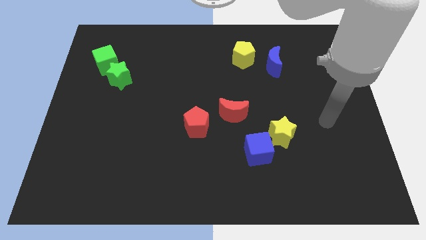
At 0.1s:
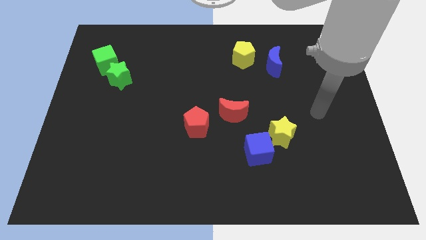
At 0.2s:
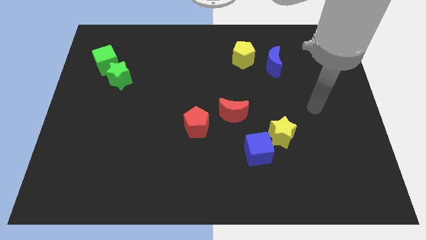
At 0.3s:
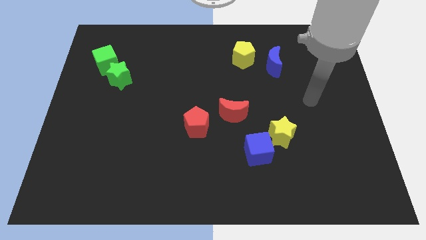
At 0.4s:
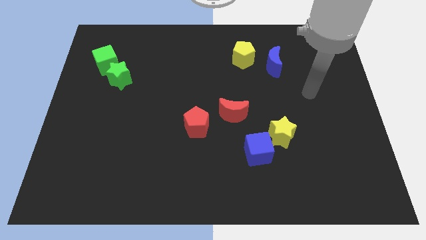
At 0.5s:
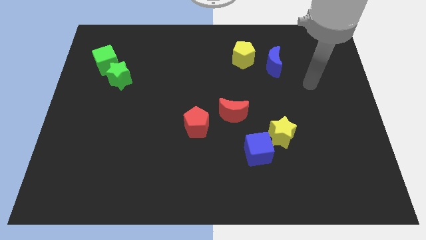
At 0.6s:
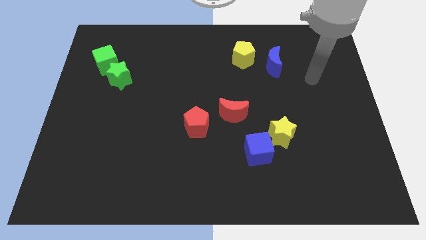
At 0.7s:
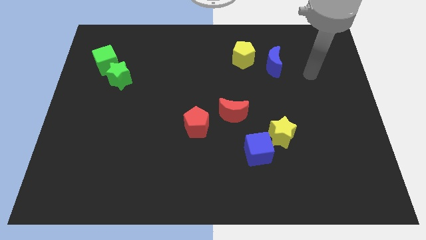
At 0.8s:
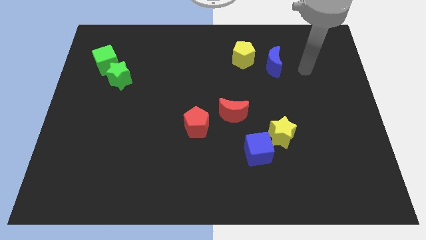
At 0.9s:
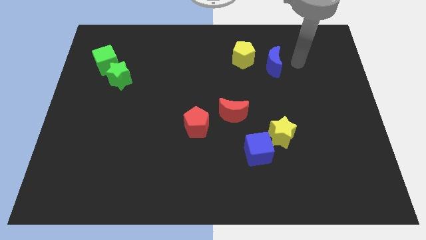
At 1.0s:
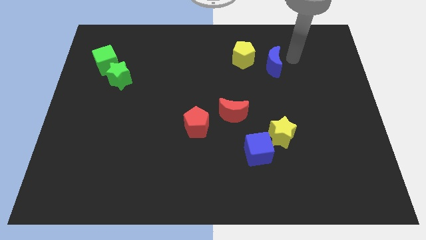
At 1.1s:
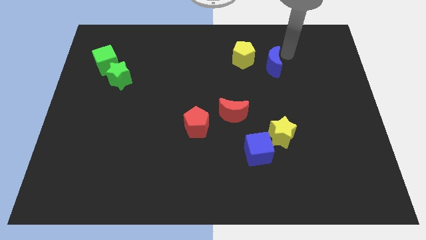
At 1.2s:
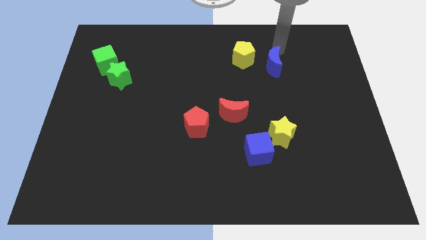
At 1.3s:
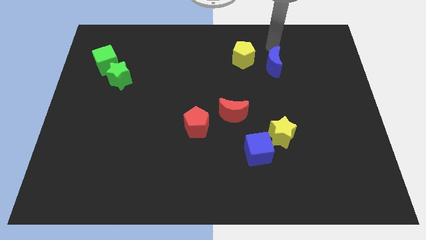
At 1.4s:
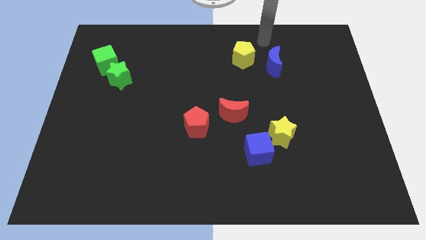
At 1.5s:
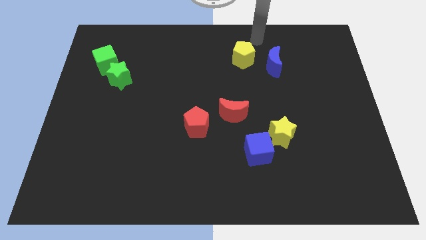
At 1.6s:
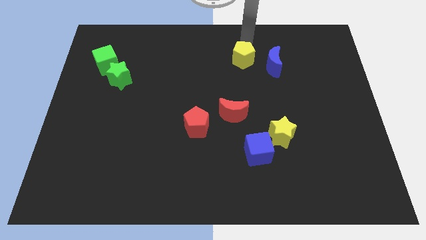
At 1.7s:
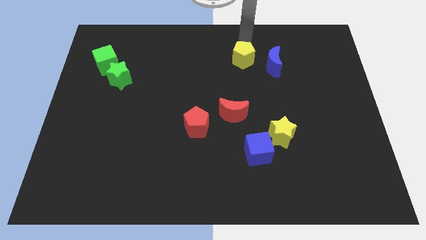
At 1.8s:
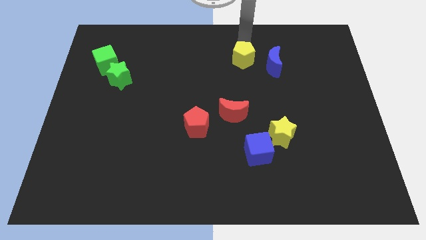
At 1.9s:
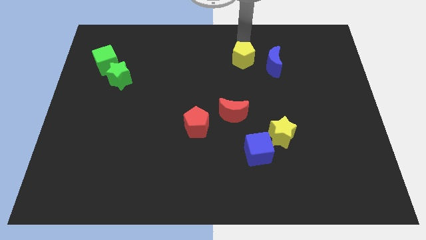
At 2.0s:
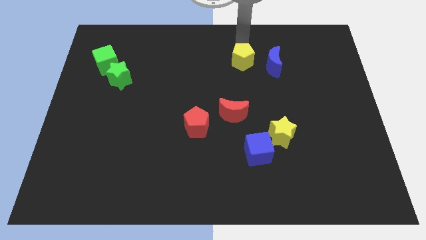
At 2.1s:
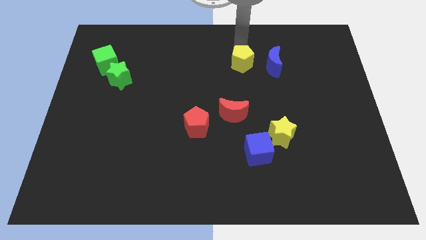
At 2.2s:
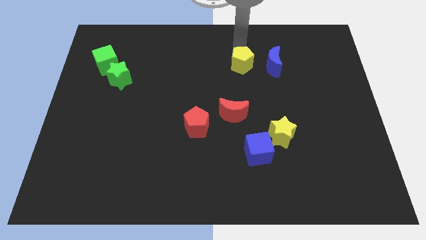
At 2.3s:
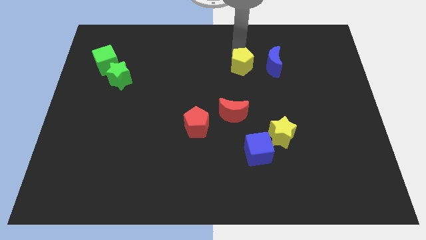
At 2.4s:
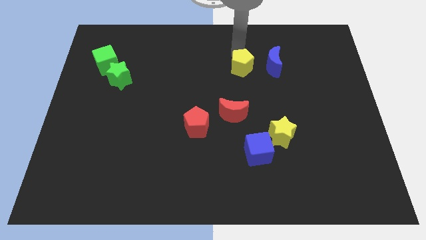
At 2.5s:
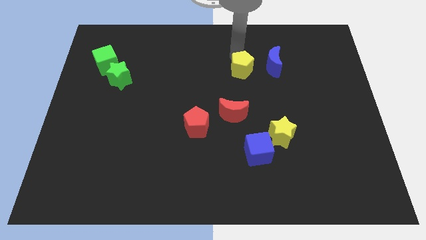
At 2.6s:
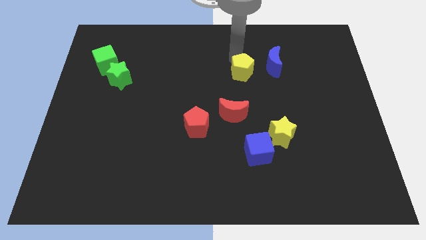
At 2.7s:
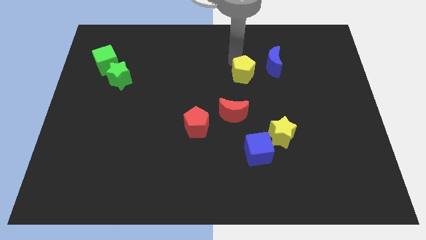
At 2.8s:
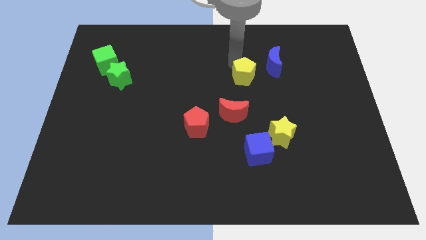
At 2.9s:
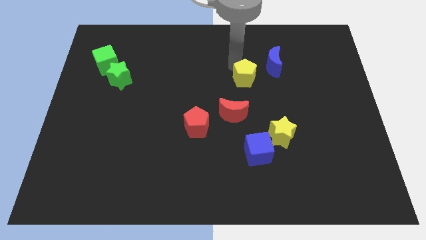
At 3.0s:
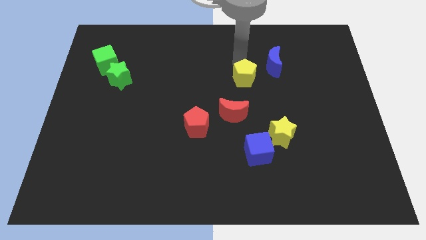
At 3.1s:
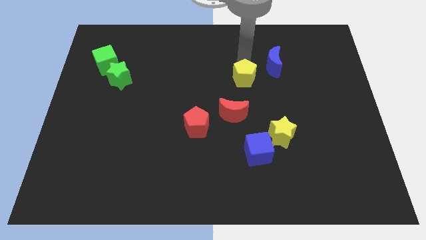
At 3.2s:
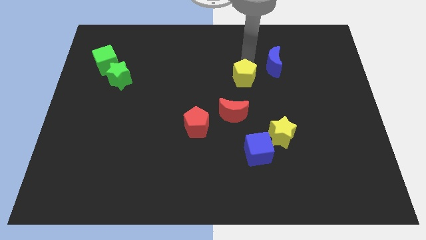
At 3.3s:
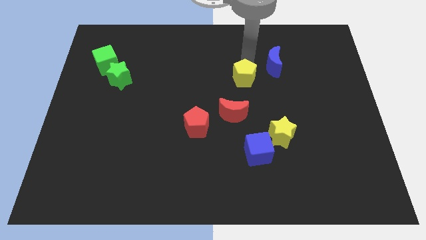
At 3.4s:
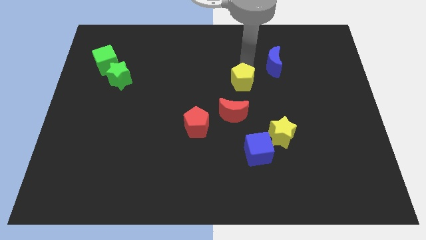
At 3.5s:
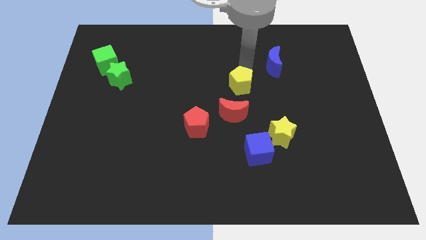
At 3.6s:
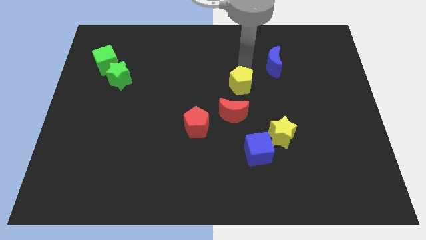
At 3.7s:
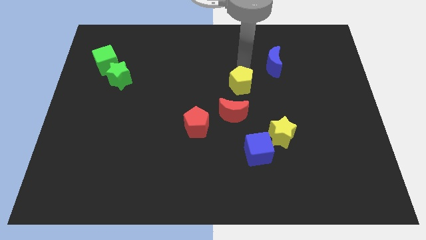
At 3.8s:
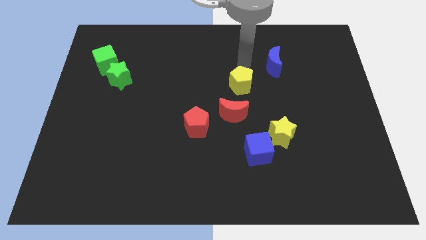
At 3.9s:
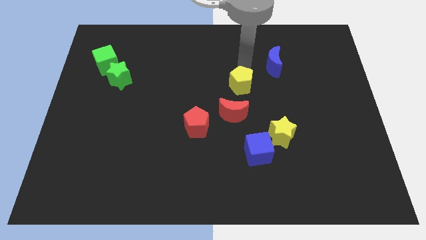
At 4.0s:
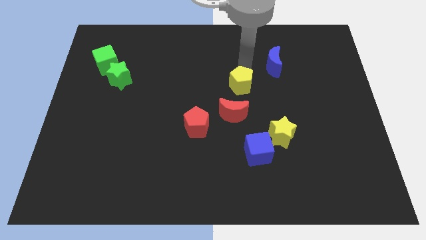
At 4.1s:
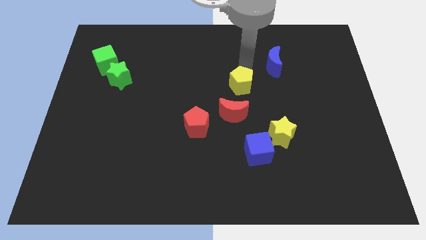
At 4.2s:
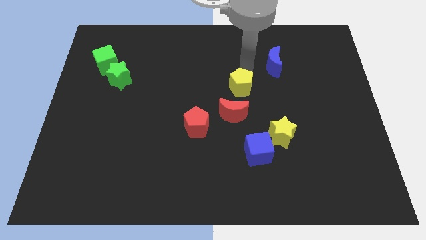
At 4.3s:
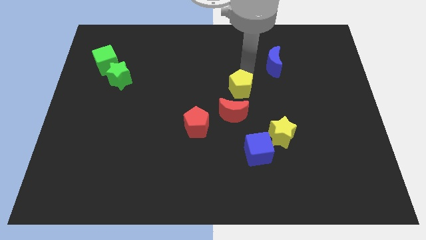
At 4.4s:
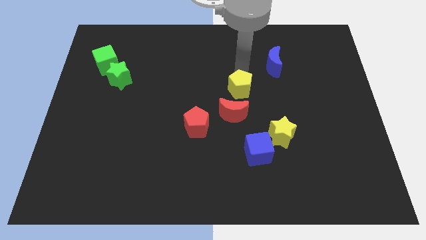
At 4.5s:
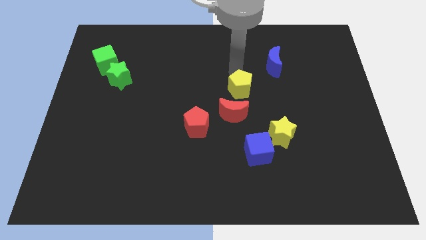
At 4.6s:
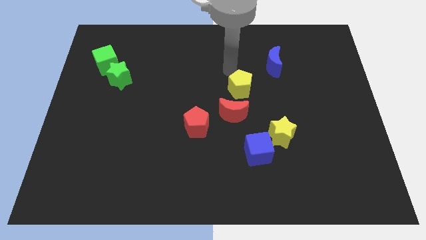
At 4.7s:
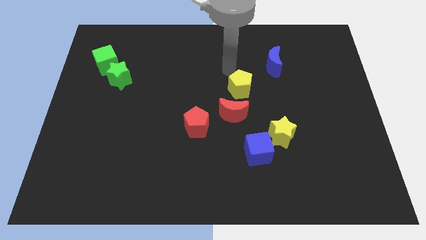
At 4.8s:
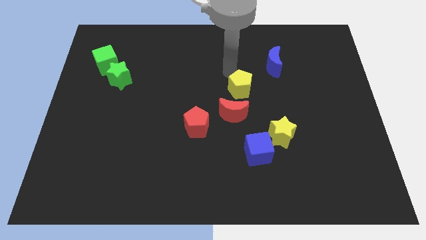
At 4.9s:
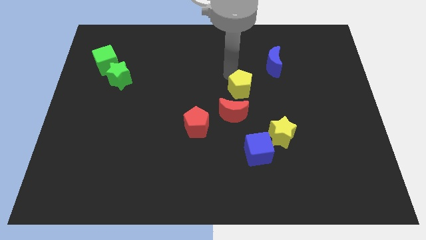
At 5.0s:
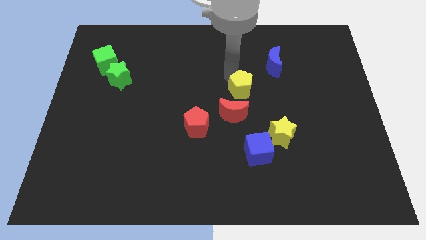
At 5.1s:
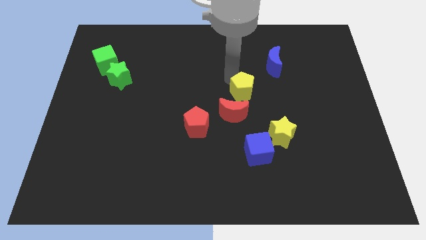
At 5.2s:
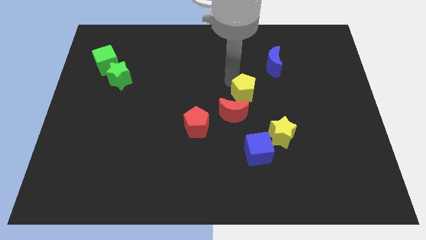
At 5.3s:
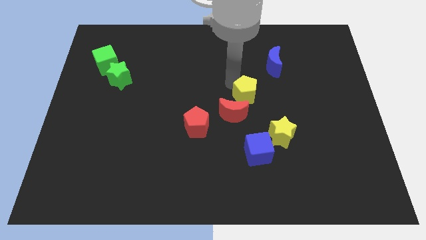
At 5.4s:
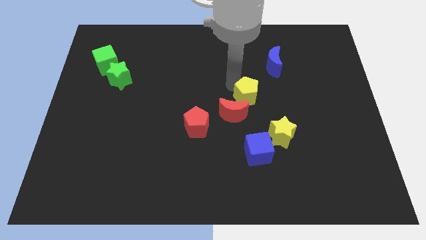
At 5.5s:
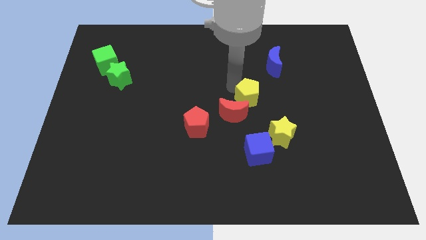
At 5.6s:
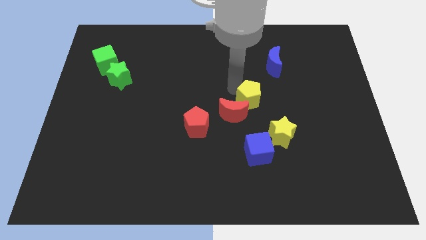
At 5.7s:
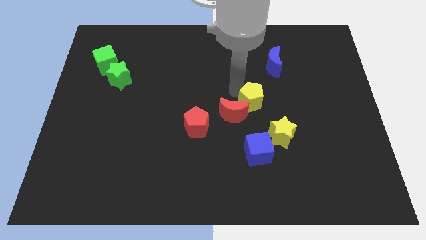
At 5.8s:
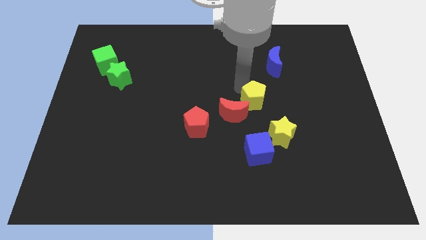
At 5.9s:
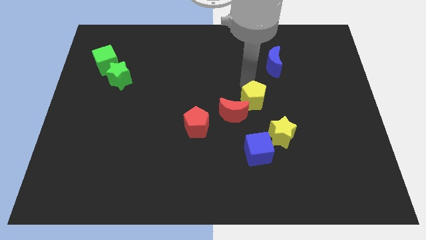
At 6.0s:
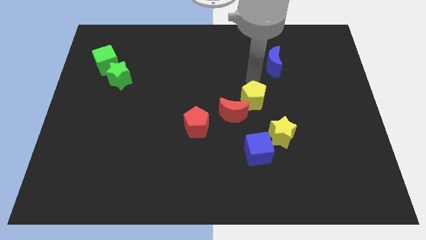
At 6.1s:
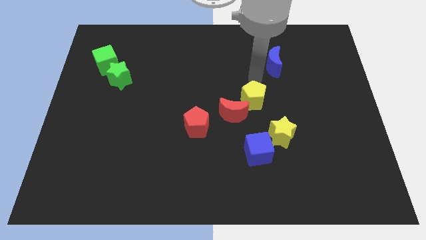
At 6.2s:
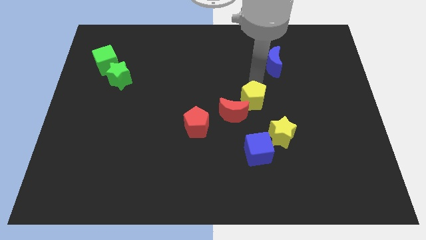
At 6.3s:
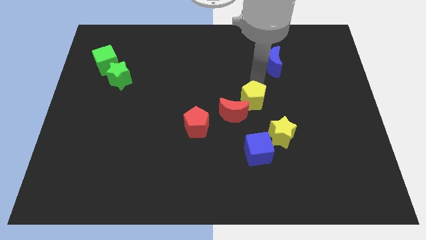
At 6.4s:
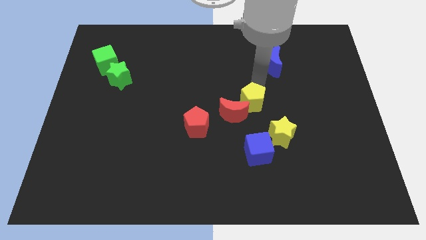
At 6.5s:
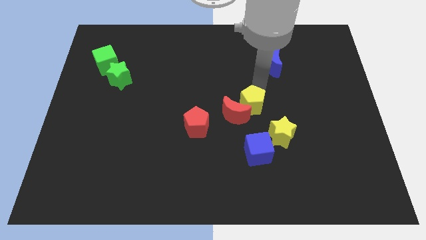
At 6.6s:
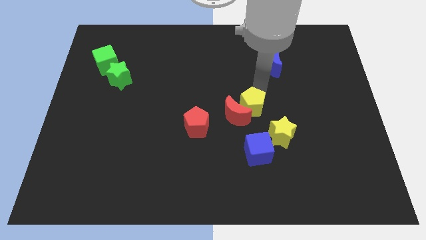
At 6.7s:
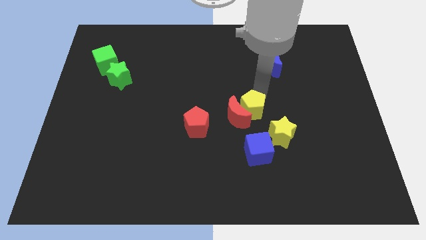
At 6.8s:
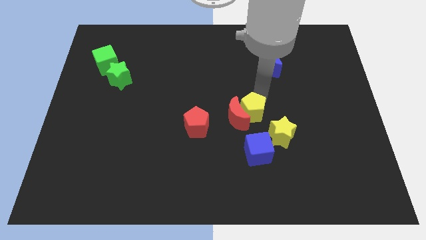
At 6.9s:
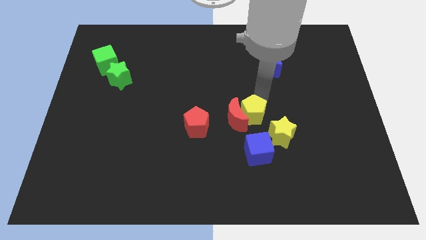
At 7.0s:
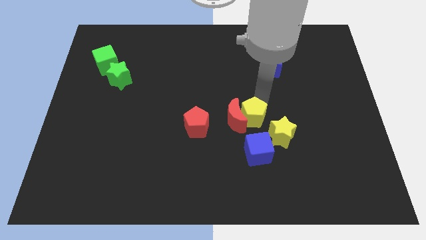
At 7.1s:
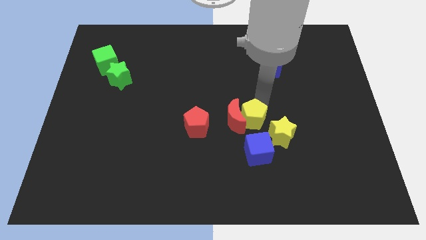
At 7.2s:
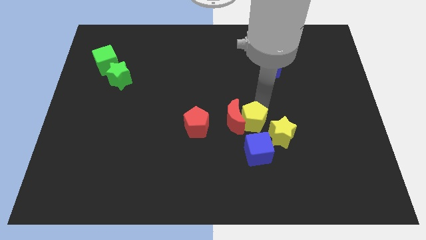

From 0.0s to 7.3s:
slide the yellow pentagon down

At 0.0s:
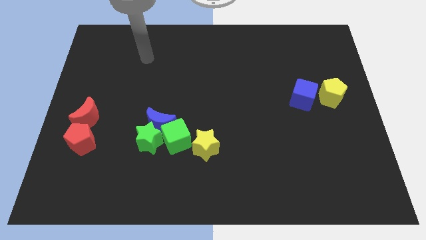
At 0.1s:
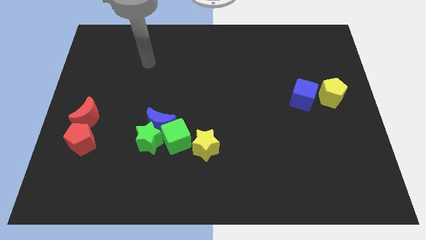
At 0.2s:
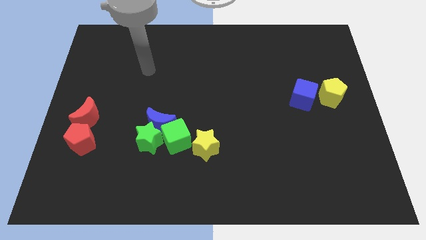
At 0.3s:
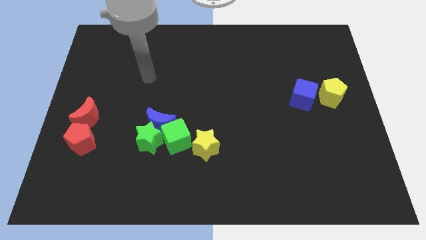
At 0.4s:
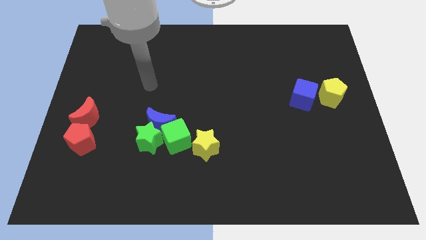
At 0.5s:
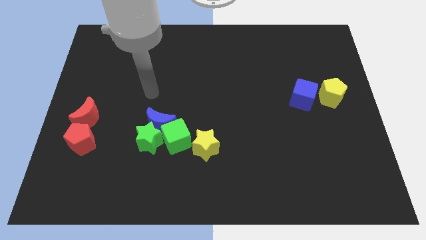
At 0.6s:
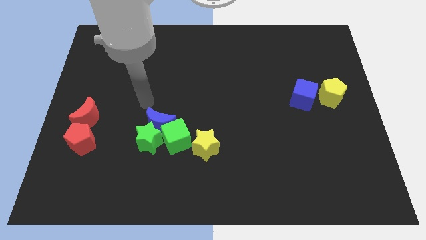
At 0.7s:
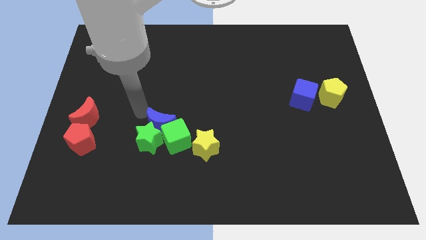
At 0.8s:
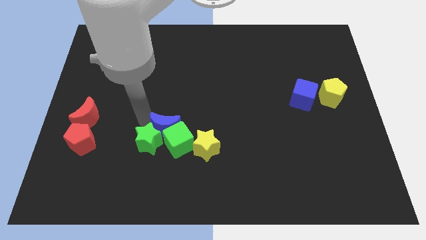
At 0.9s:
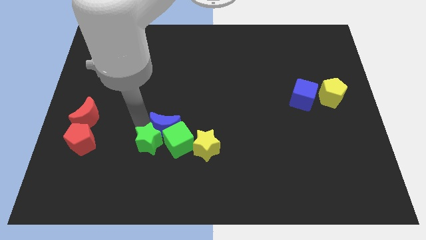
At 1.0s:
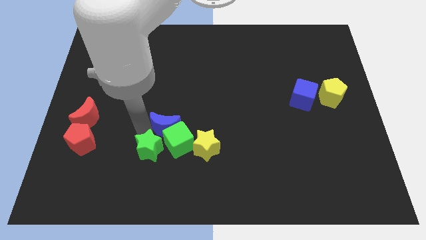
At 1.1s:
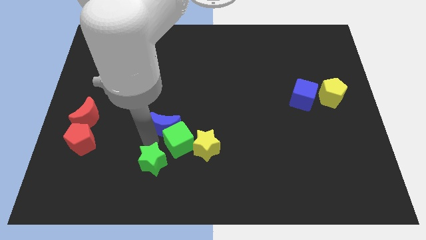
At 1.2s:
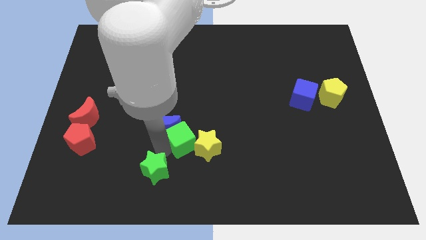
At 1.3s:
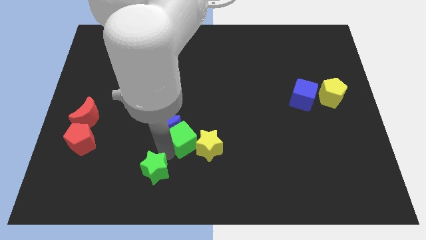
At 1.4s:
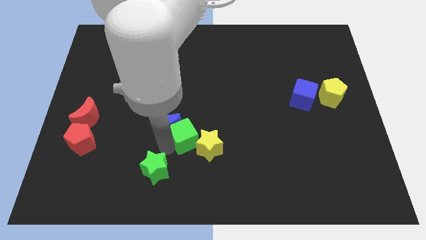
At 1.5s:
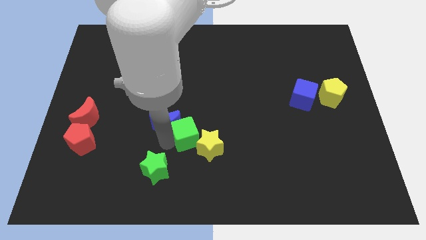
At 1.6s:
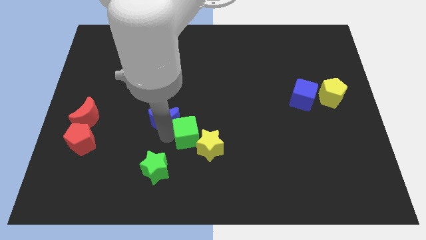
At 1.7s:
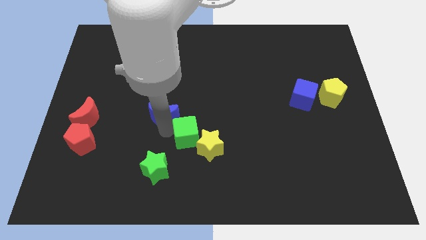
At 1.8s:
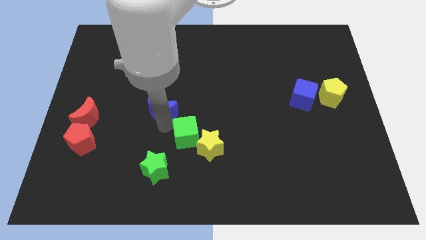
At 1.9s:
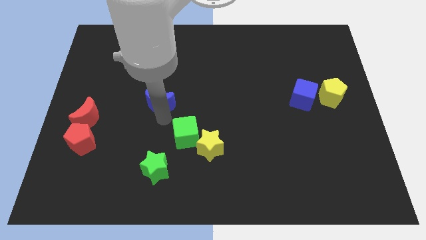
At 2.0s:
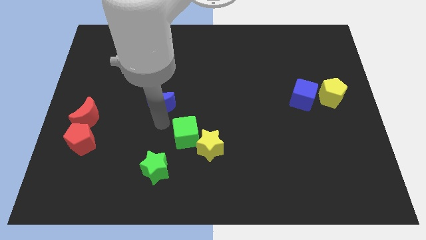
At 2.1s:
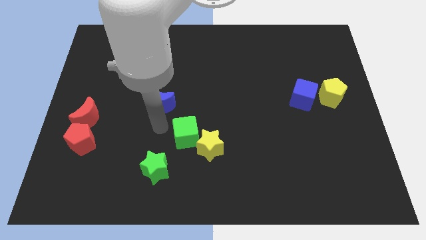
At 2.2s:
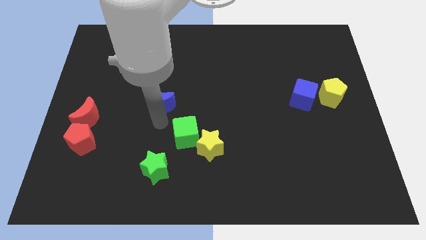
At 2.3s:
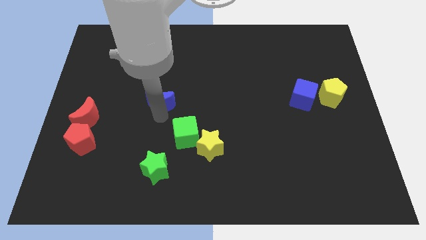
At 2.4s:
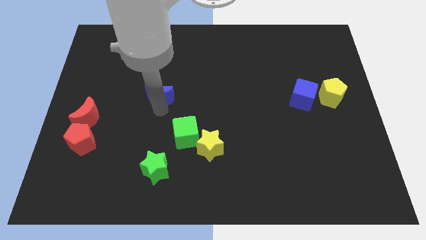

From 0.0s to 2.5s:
move the blue moon a bit up
